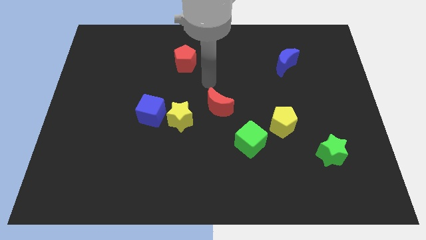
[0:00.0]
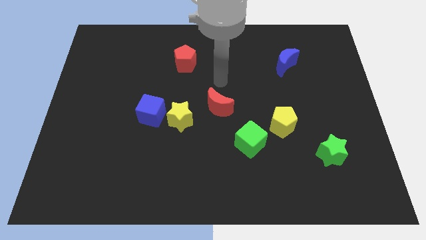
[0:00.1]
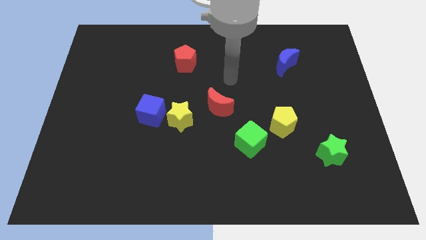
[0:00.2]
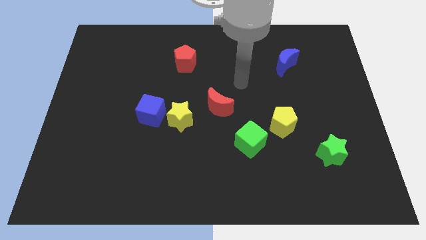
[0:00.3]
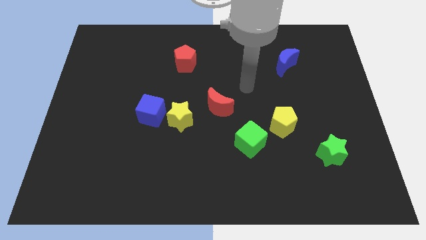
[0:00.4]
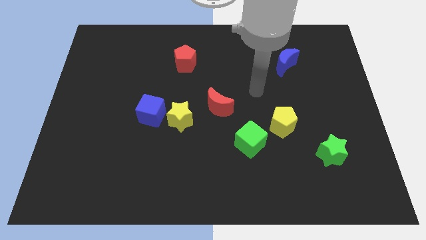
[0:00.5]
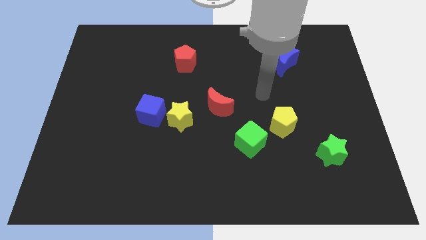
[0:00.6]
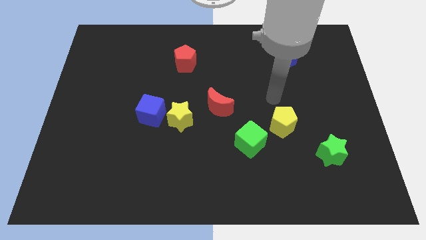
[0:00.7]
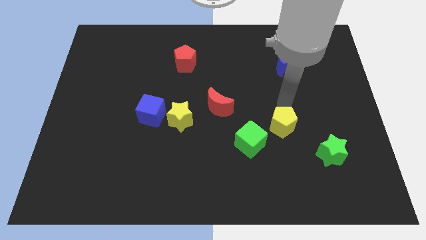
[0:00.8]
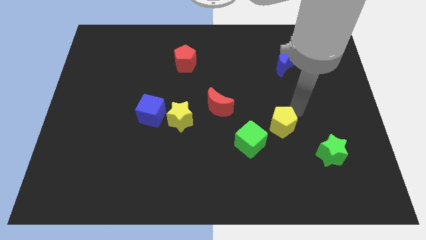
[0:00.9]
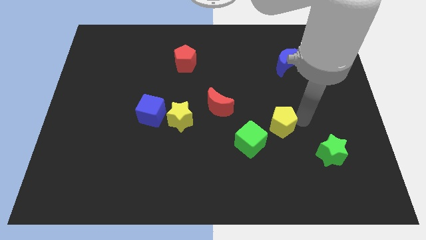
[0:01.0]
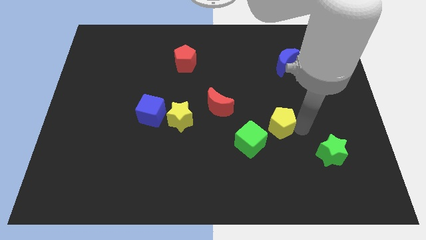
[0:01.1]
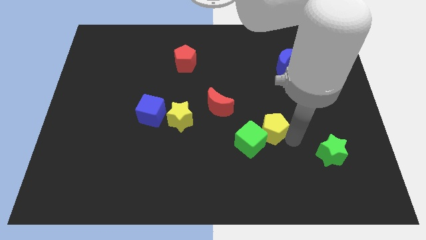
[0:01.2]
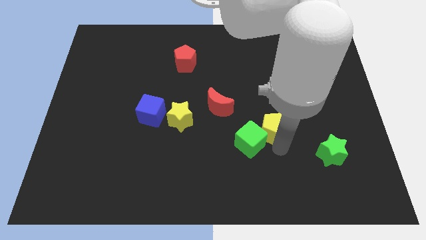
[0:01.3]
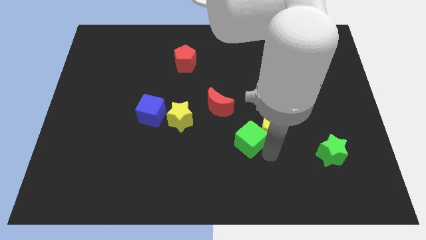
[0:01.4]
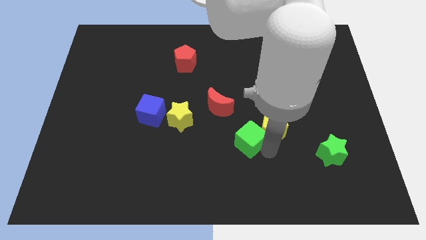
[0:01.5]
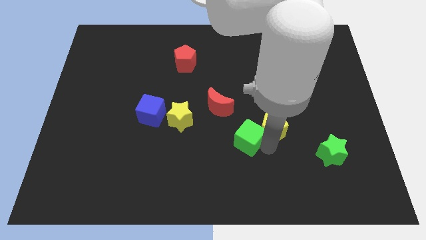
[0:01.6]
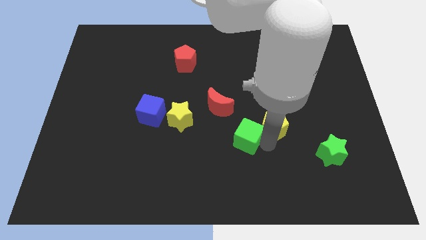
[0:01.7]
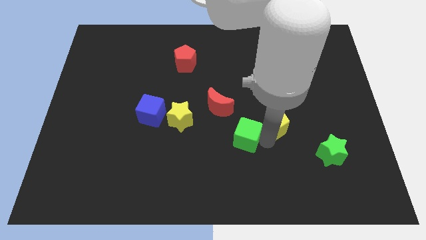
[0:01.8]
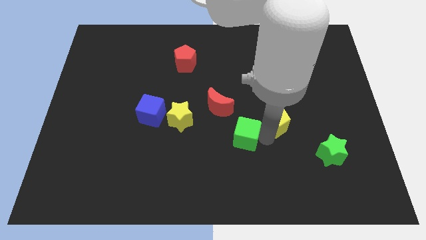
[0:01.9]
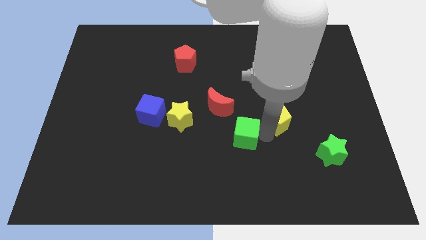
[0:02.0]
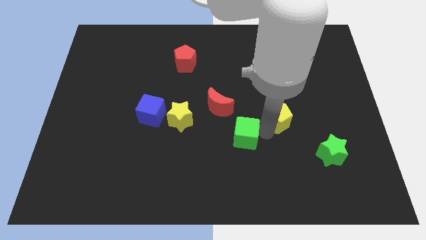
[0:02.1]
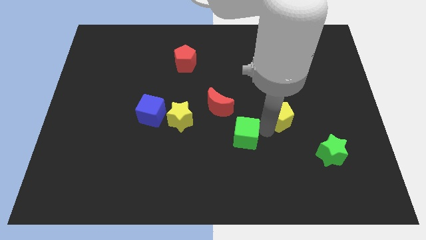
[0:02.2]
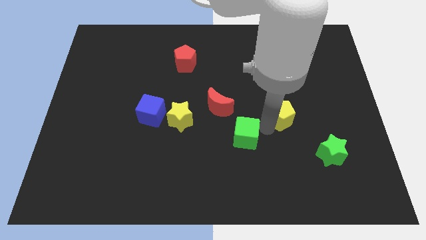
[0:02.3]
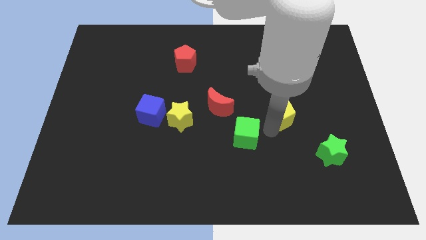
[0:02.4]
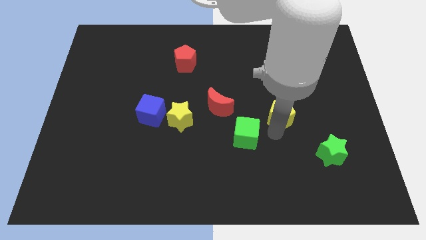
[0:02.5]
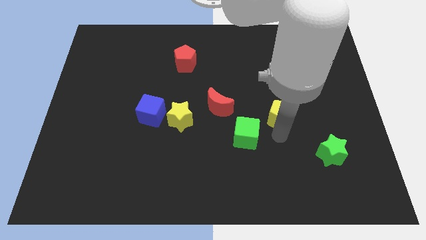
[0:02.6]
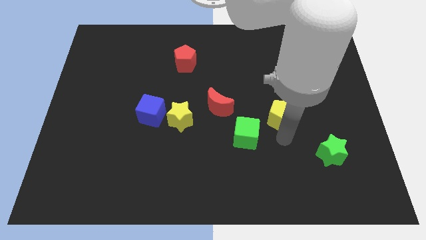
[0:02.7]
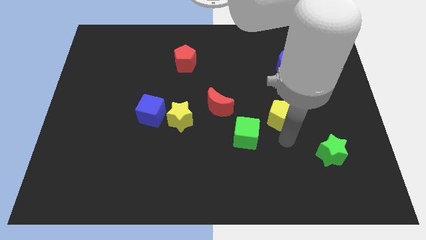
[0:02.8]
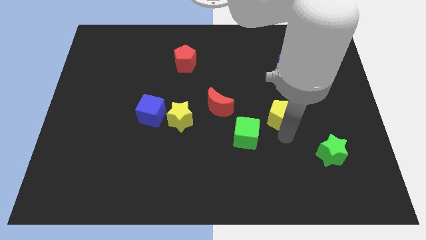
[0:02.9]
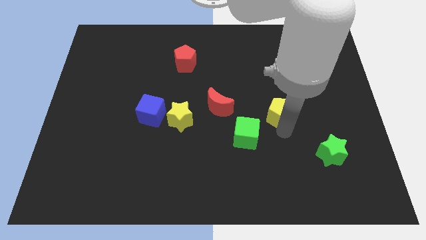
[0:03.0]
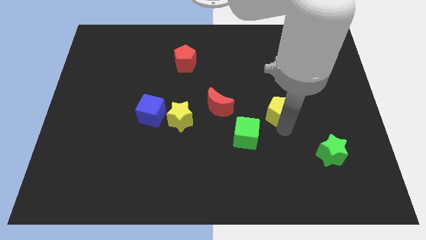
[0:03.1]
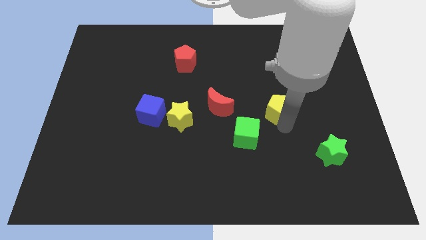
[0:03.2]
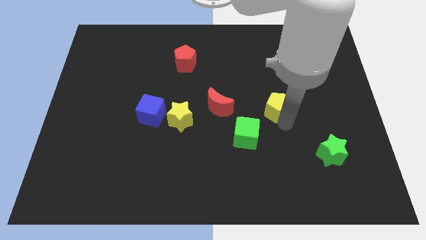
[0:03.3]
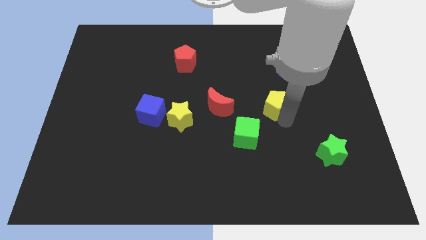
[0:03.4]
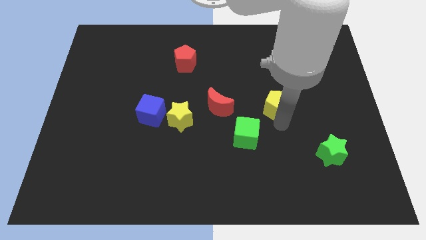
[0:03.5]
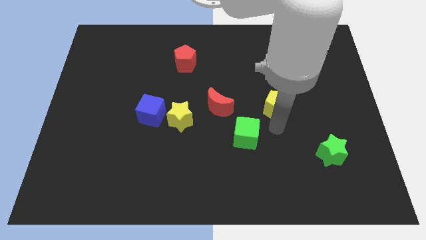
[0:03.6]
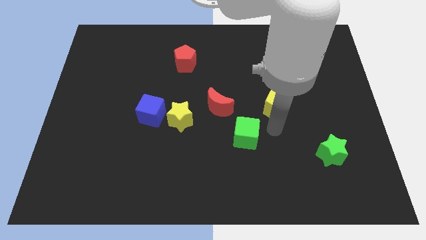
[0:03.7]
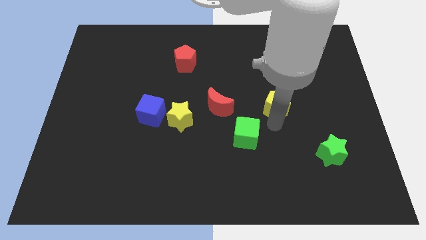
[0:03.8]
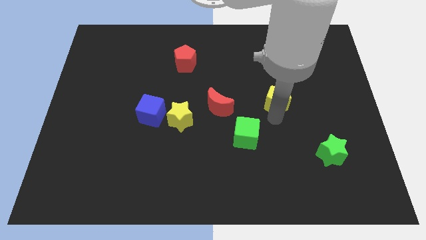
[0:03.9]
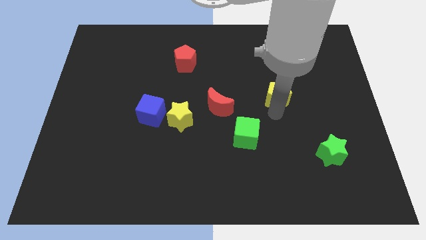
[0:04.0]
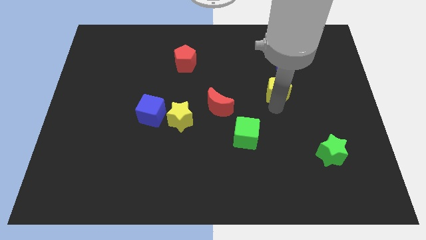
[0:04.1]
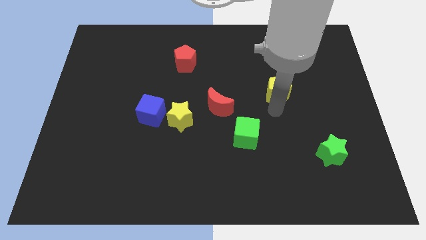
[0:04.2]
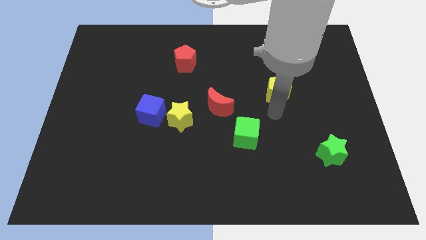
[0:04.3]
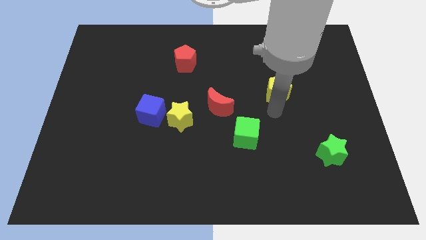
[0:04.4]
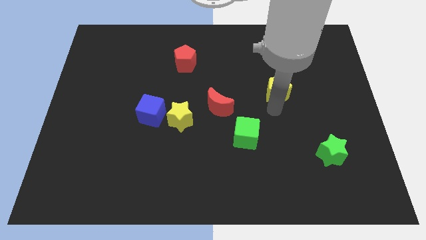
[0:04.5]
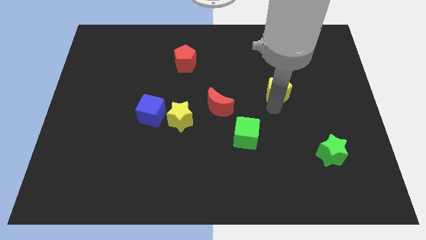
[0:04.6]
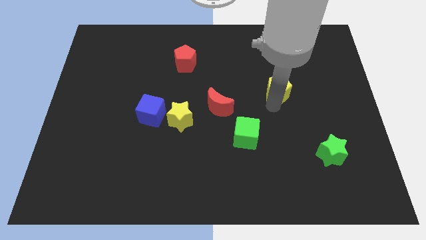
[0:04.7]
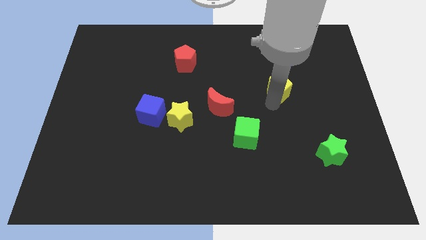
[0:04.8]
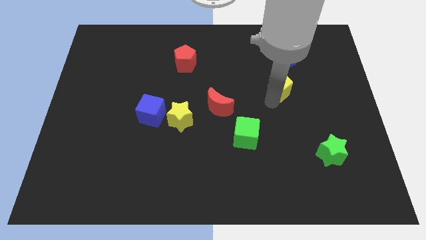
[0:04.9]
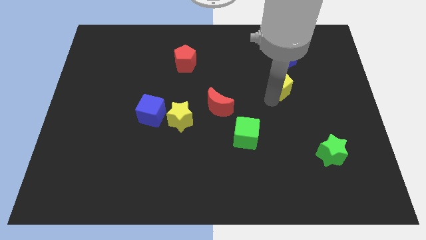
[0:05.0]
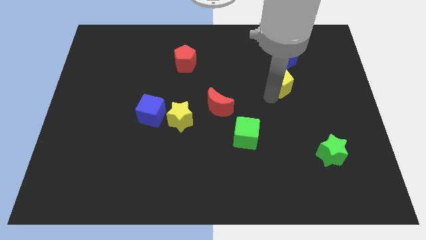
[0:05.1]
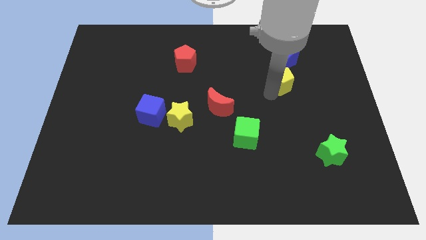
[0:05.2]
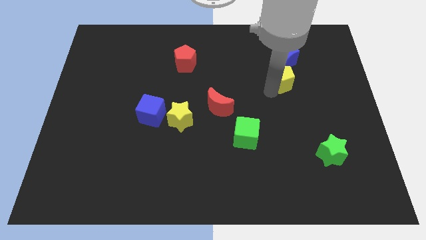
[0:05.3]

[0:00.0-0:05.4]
push the yellow pentagon close to the blue moon

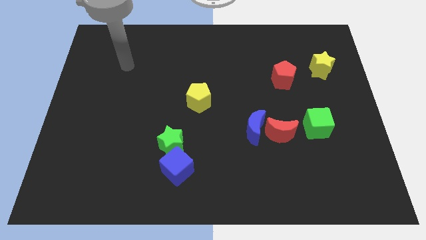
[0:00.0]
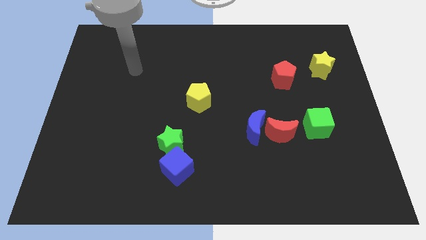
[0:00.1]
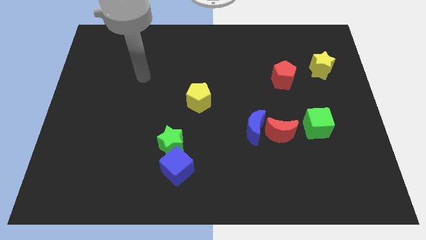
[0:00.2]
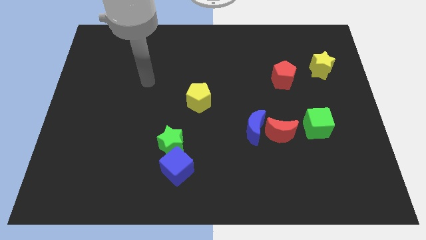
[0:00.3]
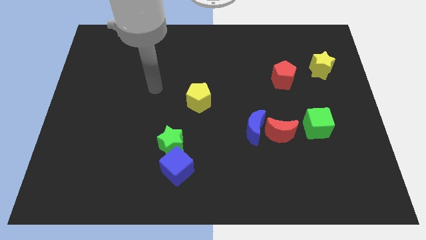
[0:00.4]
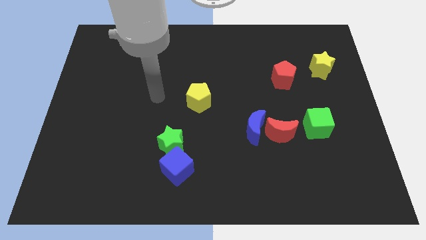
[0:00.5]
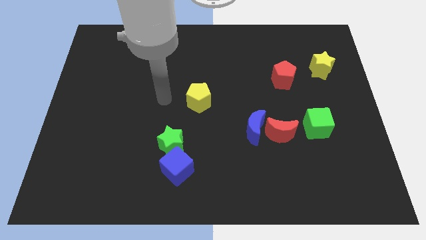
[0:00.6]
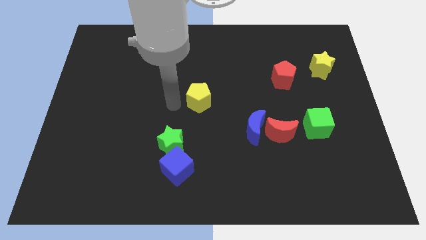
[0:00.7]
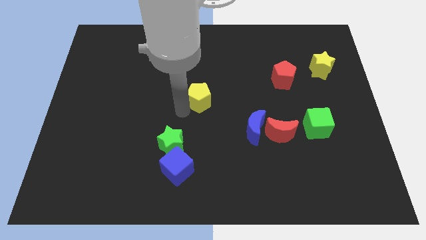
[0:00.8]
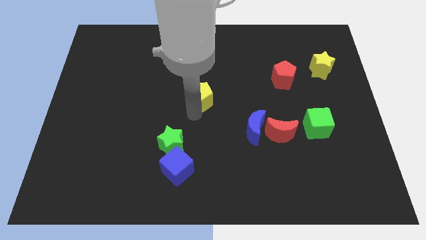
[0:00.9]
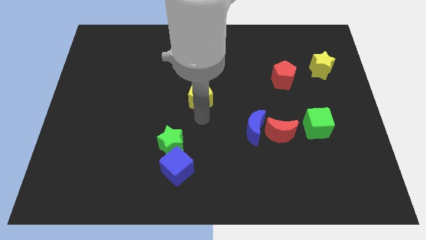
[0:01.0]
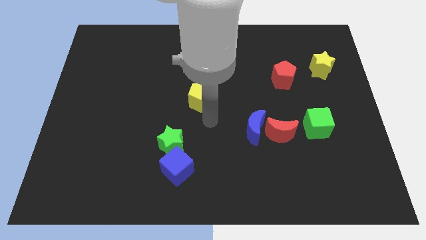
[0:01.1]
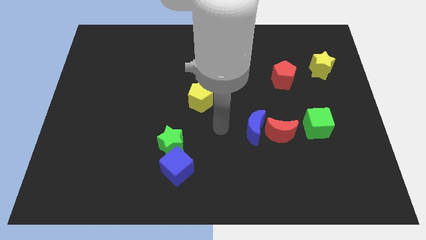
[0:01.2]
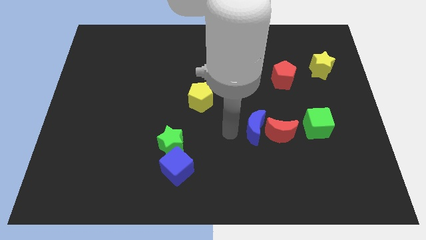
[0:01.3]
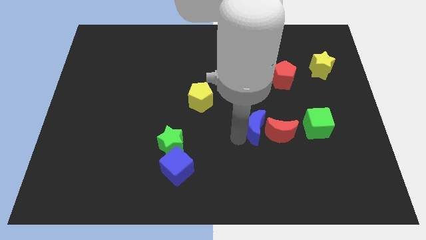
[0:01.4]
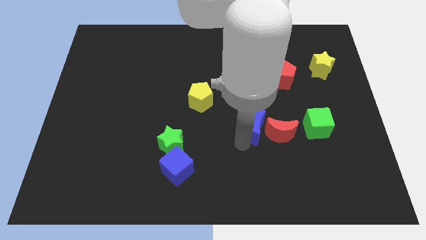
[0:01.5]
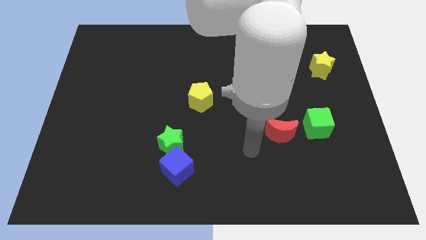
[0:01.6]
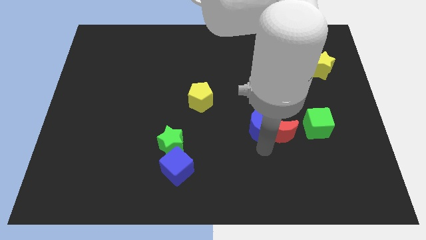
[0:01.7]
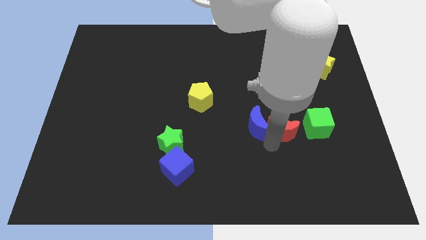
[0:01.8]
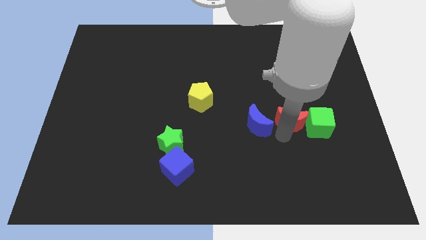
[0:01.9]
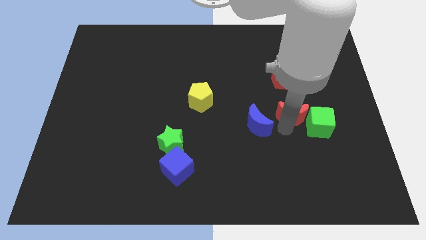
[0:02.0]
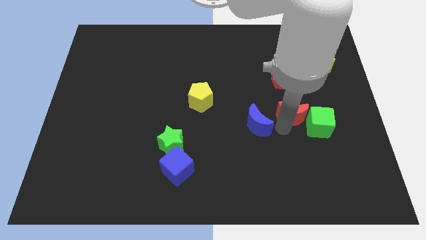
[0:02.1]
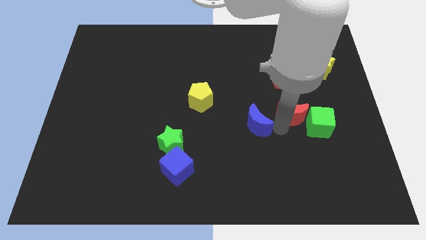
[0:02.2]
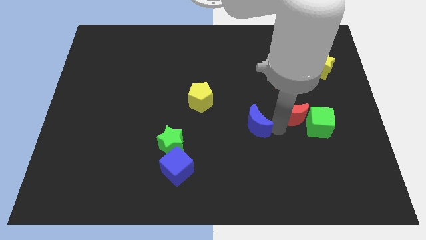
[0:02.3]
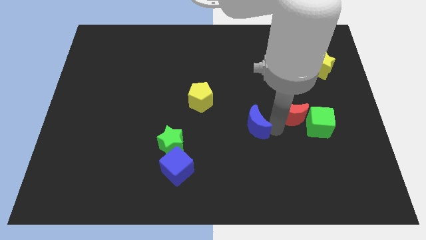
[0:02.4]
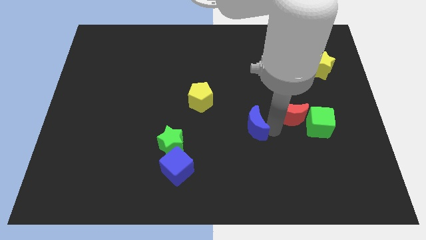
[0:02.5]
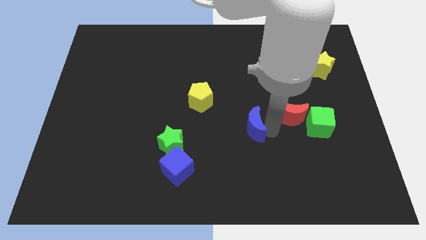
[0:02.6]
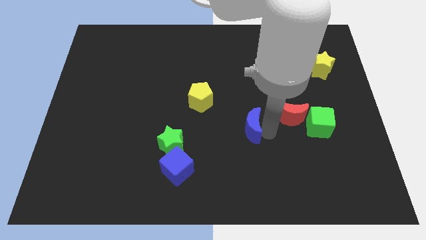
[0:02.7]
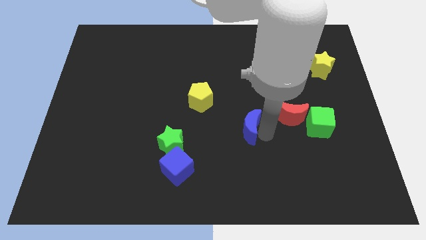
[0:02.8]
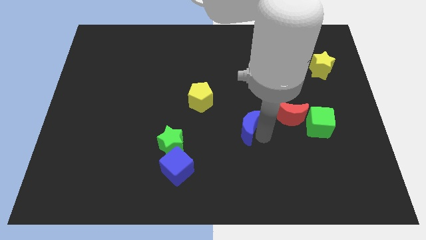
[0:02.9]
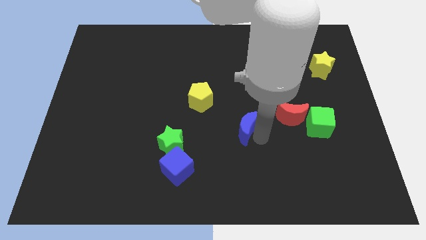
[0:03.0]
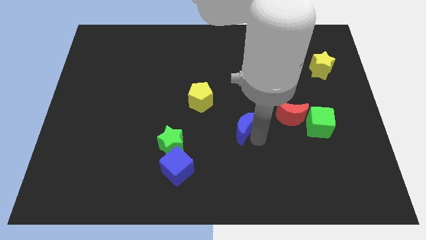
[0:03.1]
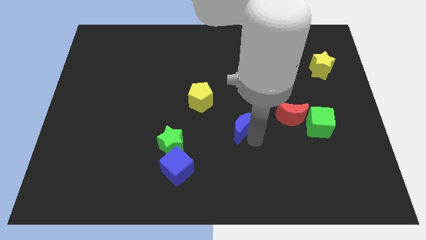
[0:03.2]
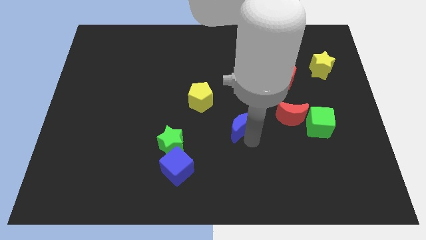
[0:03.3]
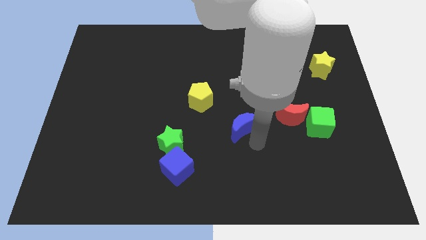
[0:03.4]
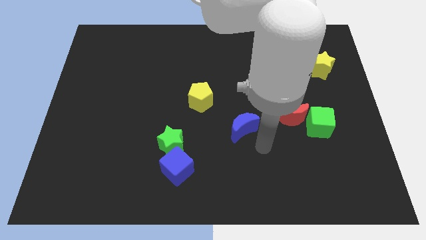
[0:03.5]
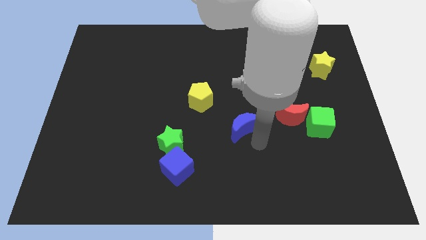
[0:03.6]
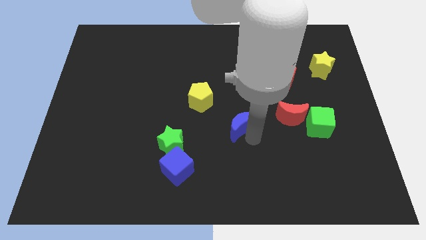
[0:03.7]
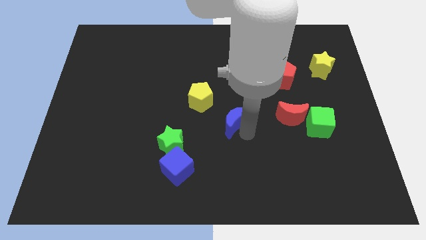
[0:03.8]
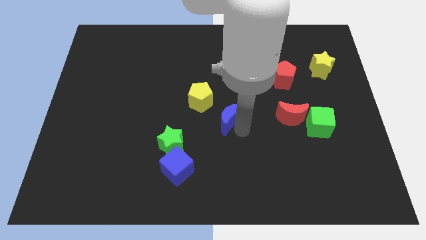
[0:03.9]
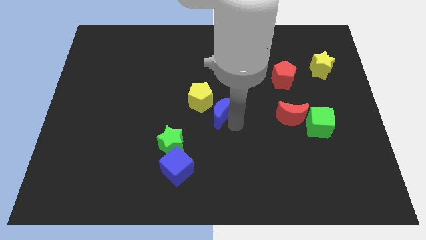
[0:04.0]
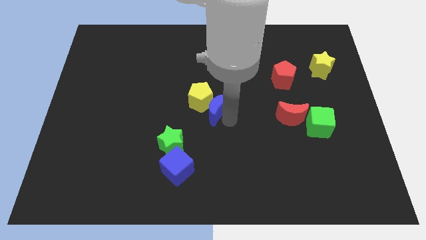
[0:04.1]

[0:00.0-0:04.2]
push the blue moon to the yellow pentagon
